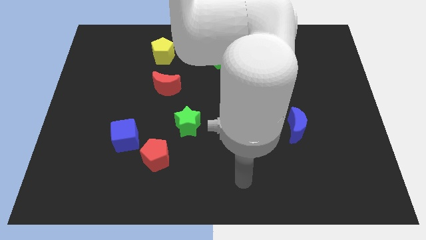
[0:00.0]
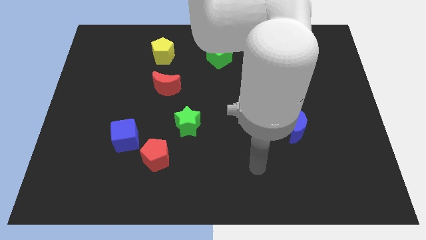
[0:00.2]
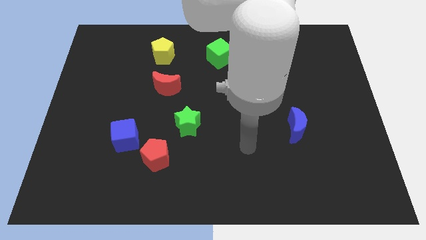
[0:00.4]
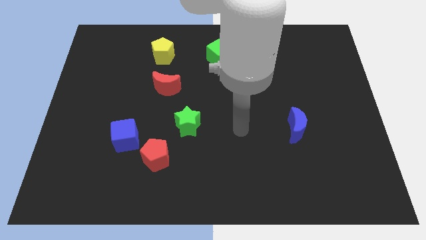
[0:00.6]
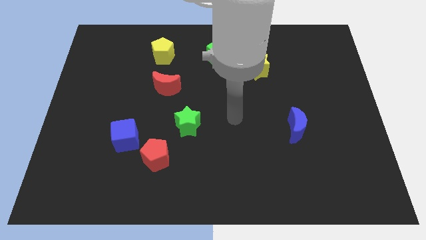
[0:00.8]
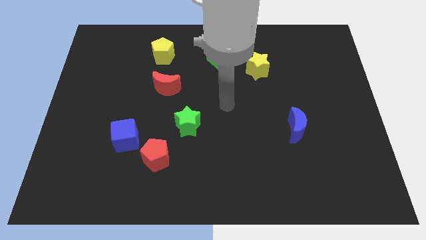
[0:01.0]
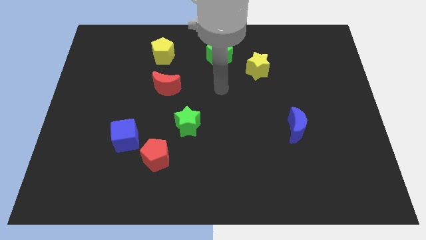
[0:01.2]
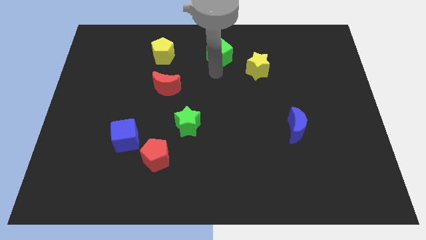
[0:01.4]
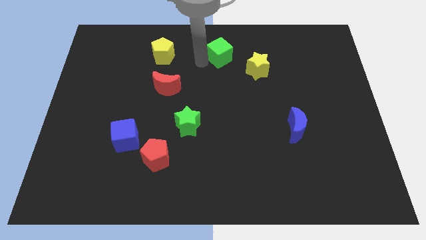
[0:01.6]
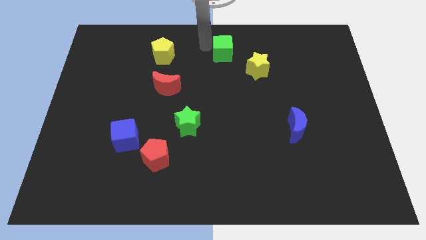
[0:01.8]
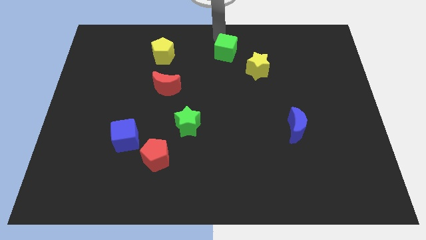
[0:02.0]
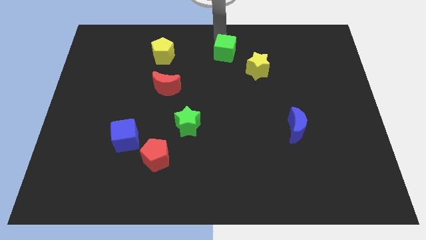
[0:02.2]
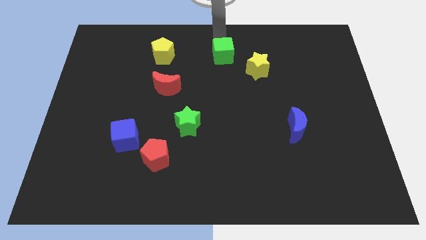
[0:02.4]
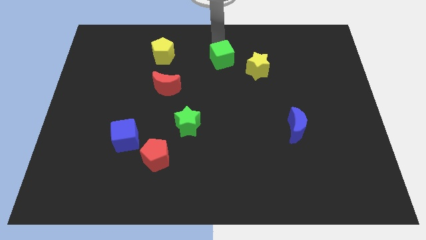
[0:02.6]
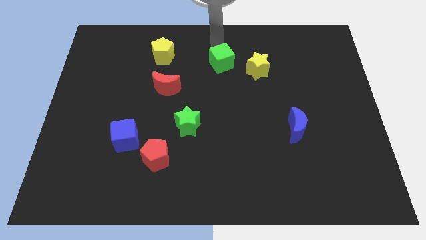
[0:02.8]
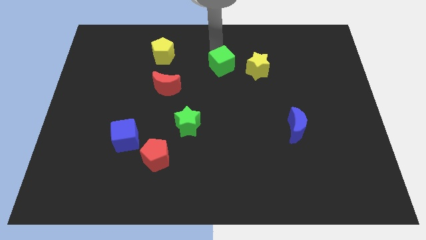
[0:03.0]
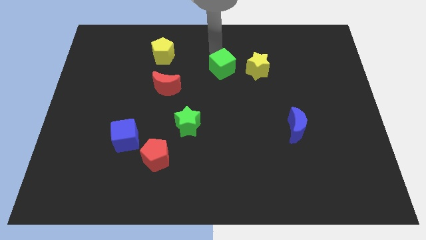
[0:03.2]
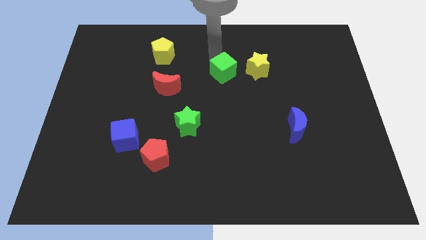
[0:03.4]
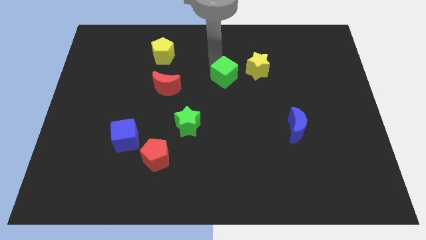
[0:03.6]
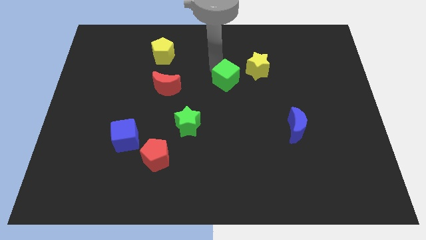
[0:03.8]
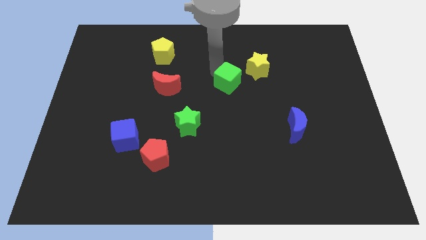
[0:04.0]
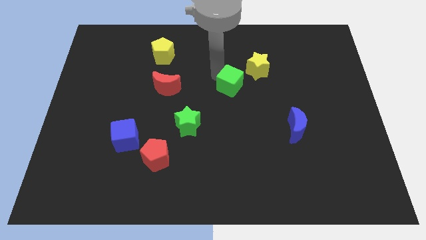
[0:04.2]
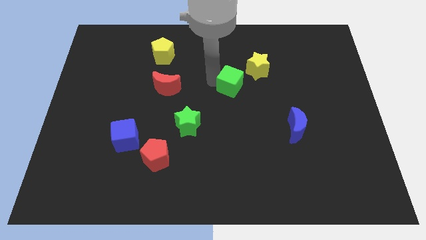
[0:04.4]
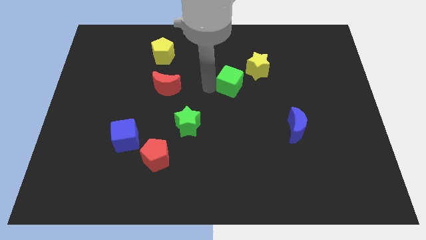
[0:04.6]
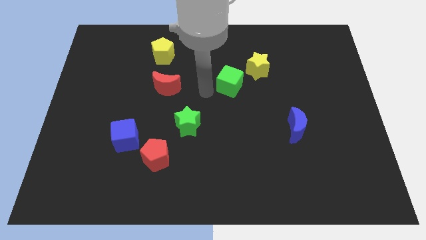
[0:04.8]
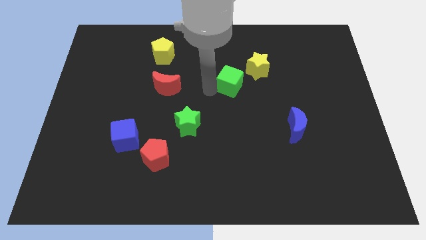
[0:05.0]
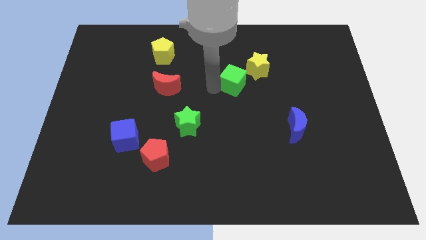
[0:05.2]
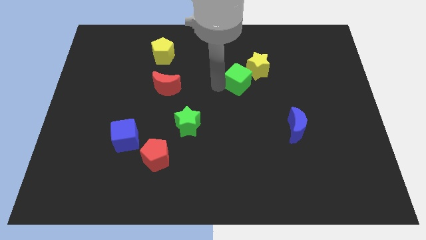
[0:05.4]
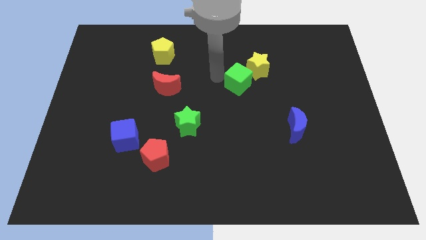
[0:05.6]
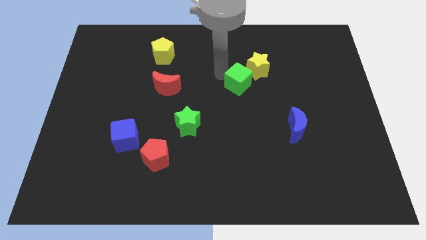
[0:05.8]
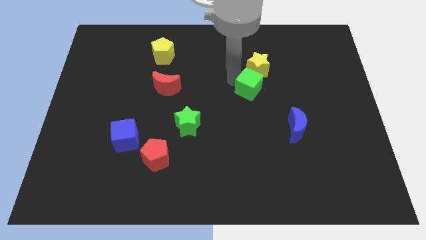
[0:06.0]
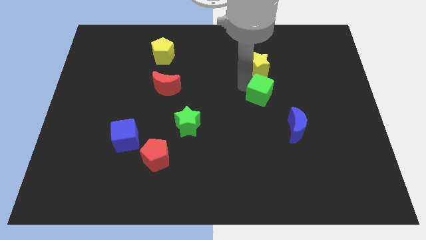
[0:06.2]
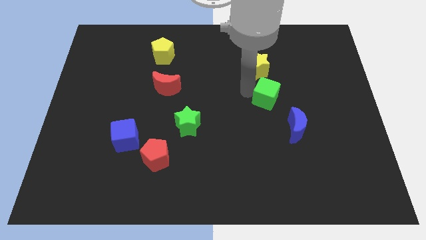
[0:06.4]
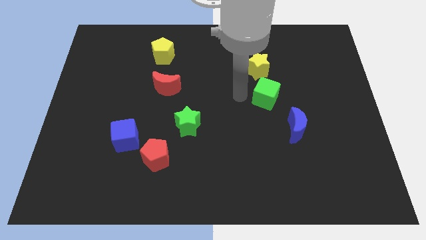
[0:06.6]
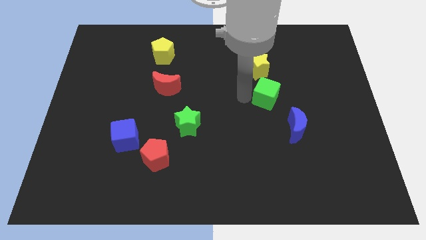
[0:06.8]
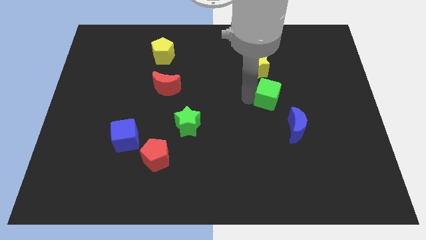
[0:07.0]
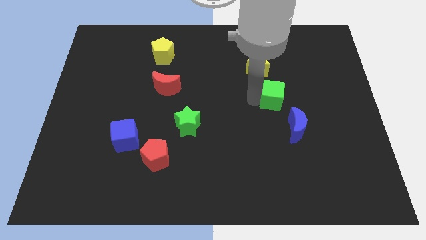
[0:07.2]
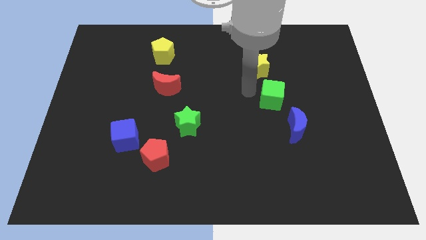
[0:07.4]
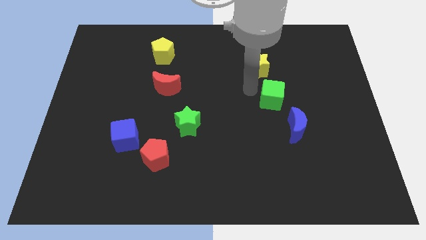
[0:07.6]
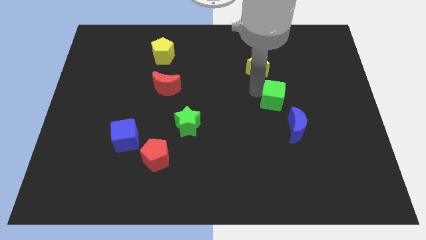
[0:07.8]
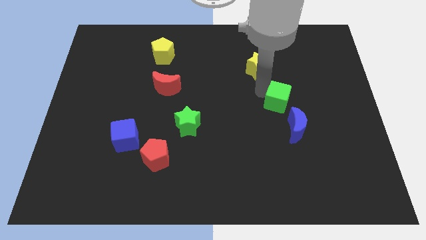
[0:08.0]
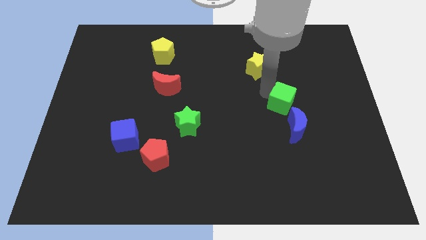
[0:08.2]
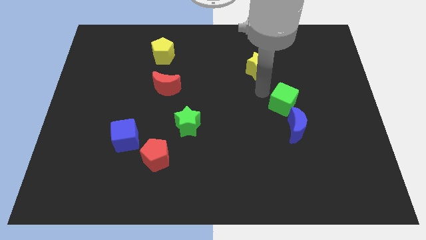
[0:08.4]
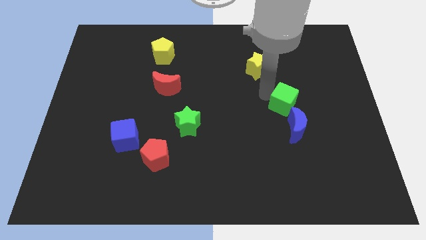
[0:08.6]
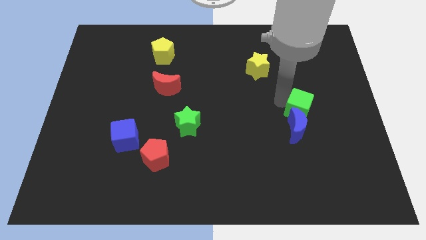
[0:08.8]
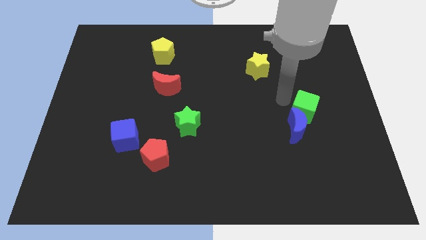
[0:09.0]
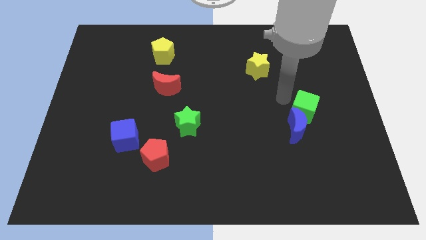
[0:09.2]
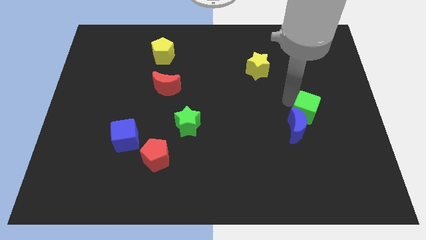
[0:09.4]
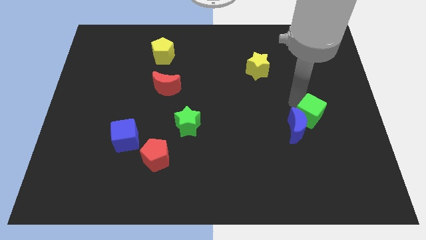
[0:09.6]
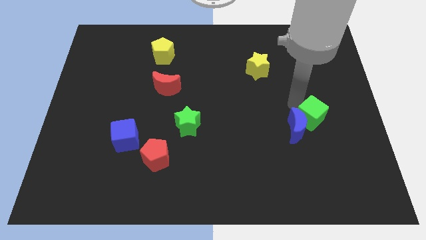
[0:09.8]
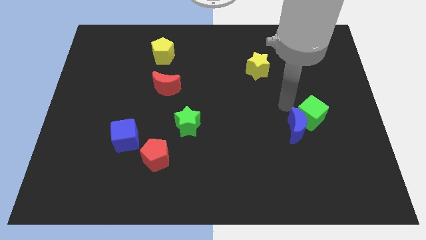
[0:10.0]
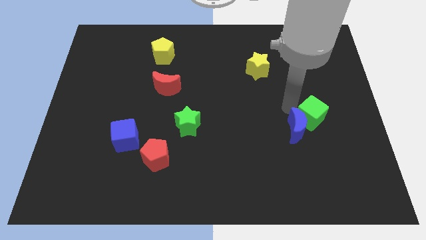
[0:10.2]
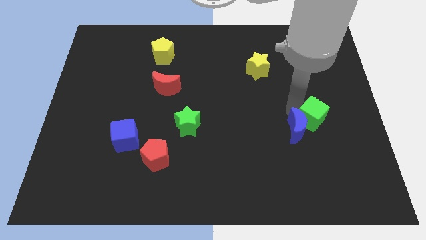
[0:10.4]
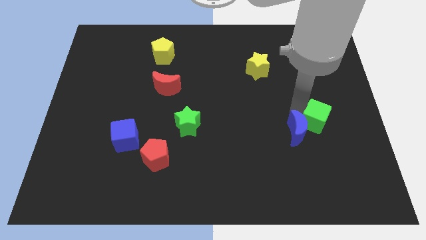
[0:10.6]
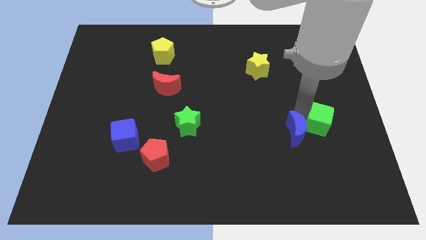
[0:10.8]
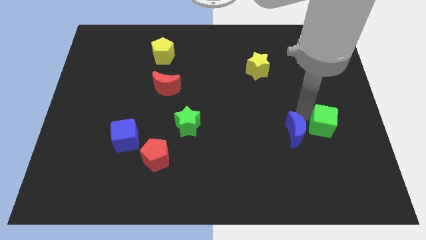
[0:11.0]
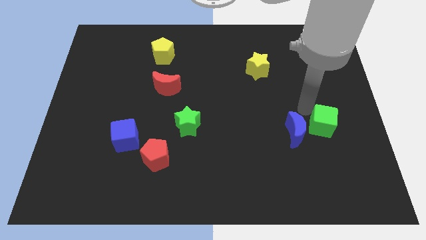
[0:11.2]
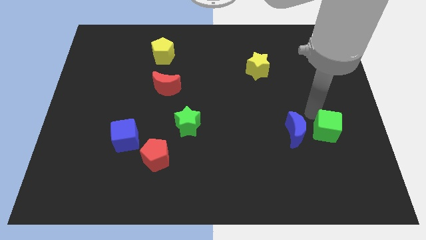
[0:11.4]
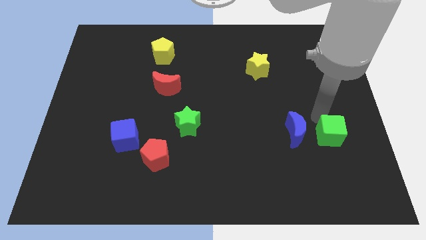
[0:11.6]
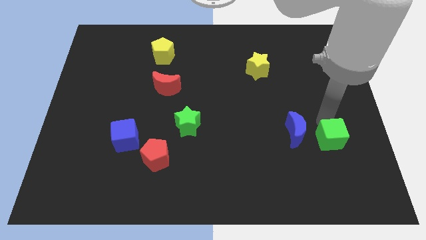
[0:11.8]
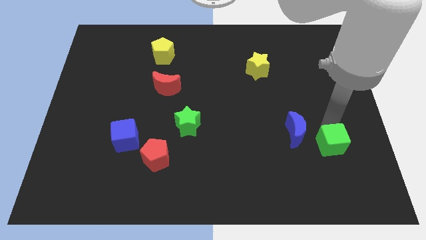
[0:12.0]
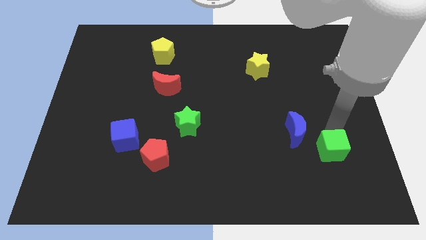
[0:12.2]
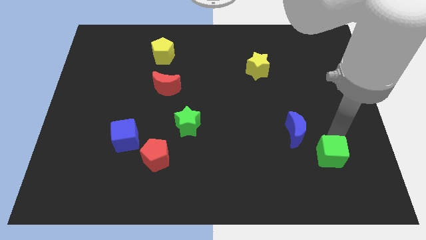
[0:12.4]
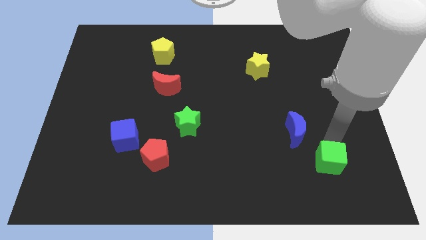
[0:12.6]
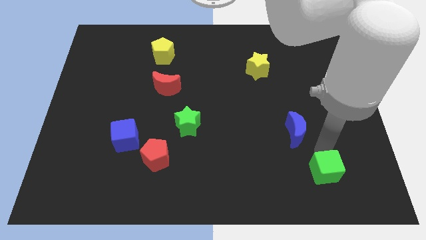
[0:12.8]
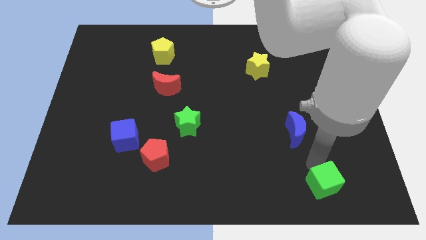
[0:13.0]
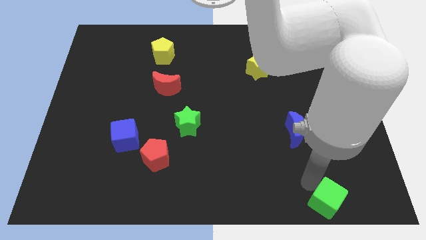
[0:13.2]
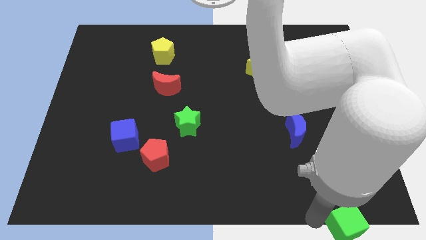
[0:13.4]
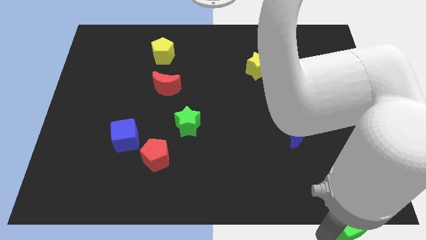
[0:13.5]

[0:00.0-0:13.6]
slide the green cube to the bottom right
